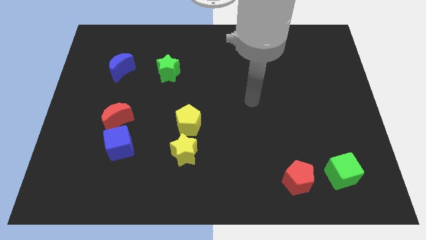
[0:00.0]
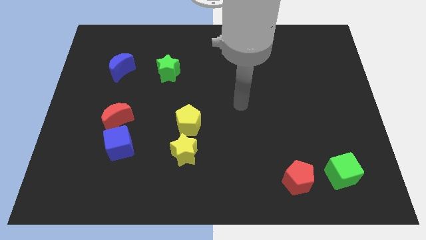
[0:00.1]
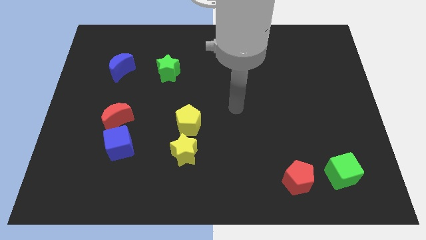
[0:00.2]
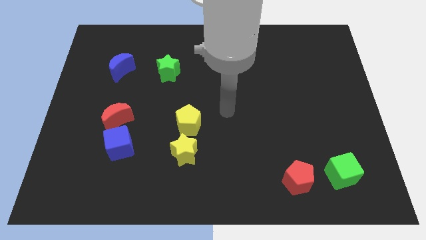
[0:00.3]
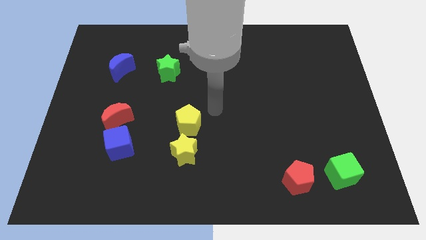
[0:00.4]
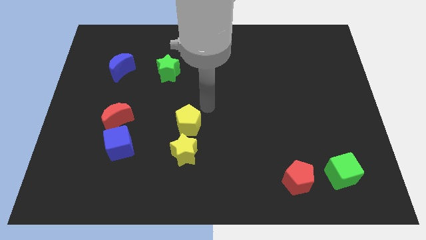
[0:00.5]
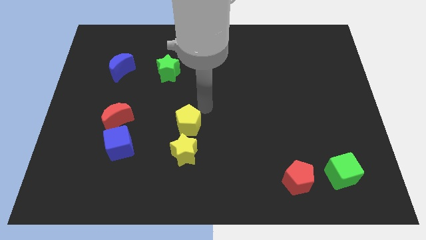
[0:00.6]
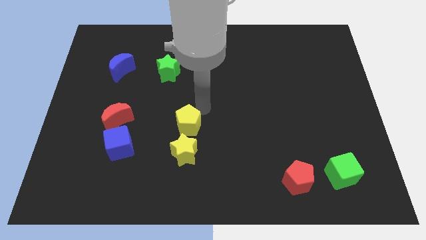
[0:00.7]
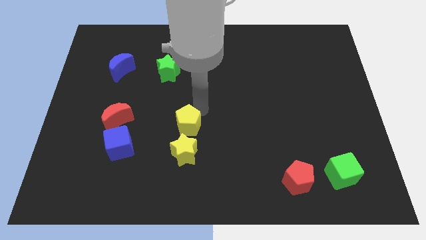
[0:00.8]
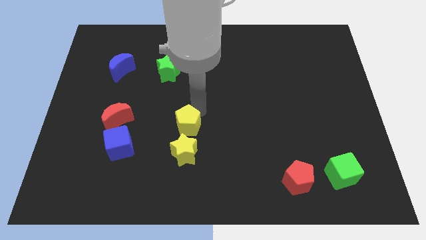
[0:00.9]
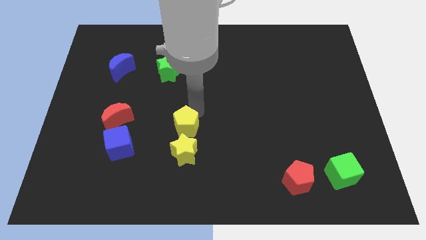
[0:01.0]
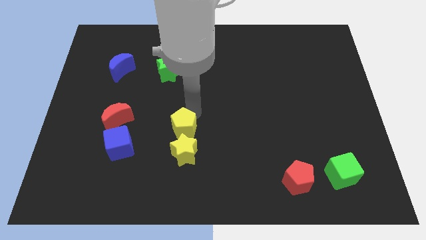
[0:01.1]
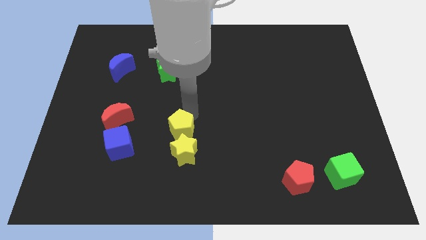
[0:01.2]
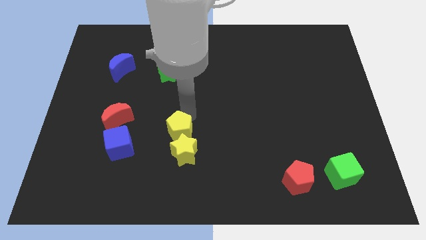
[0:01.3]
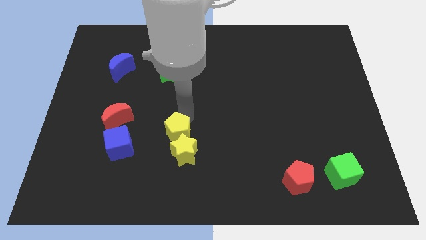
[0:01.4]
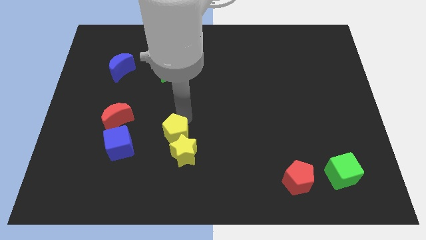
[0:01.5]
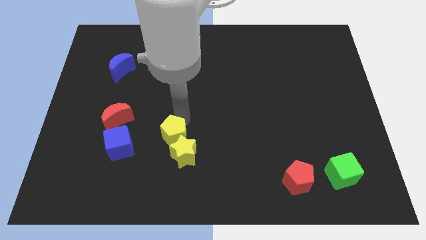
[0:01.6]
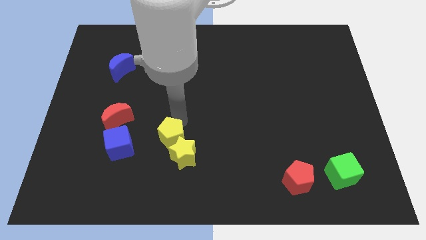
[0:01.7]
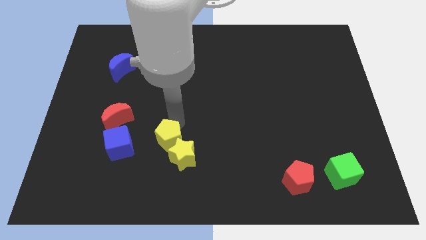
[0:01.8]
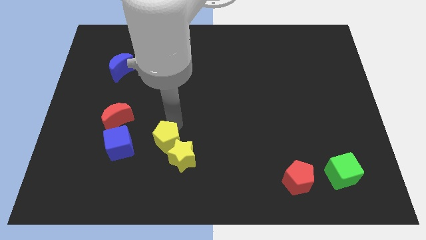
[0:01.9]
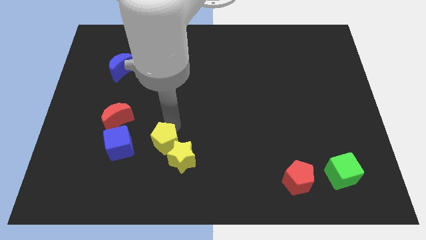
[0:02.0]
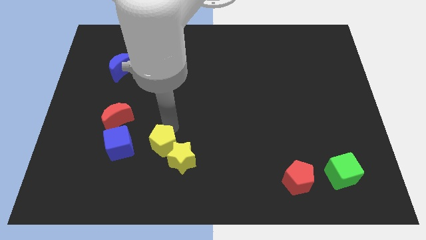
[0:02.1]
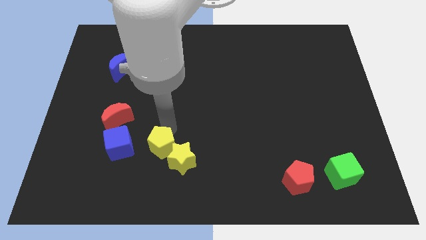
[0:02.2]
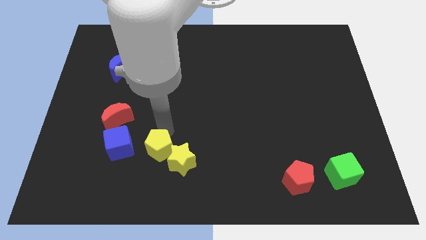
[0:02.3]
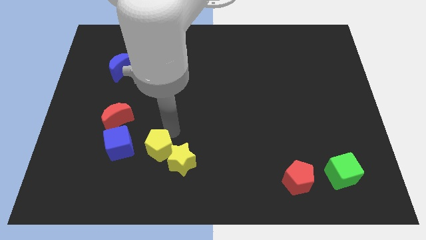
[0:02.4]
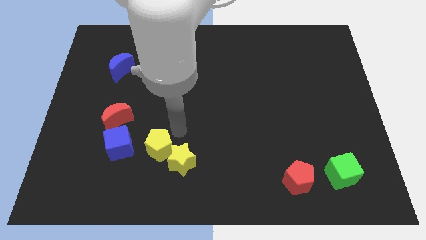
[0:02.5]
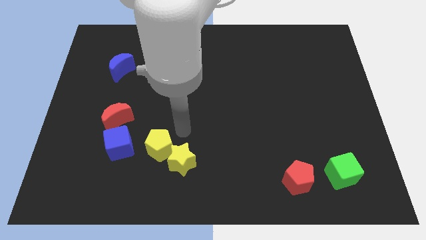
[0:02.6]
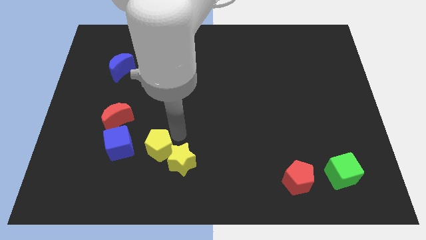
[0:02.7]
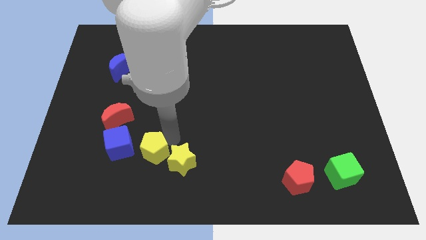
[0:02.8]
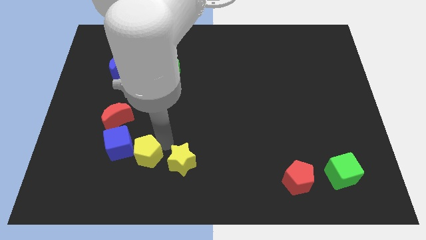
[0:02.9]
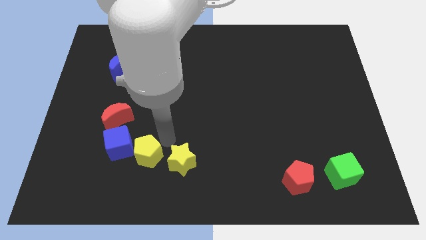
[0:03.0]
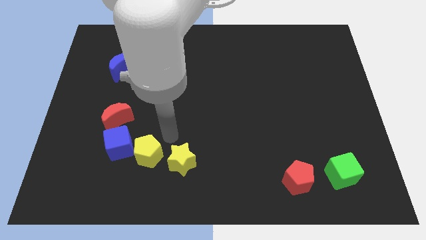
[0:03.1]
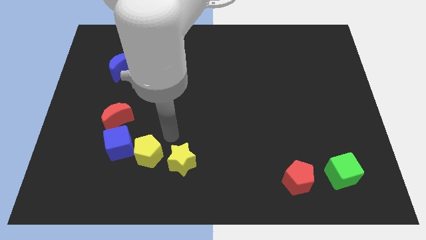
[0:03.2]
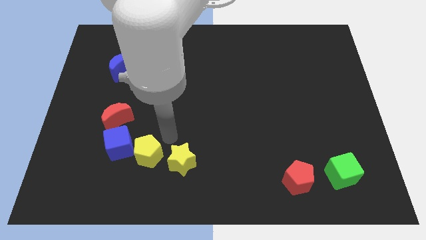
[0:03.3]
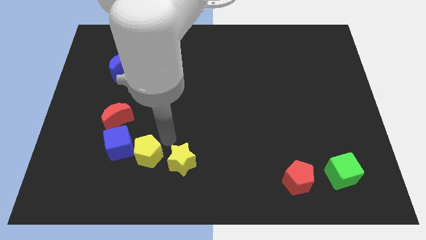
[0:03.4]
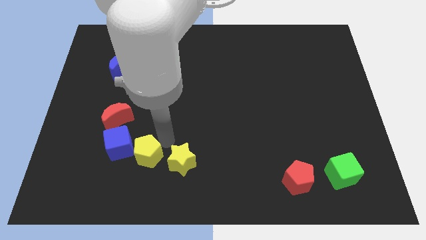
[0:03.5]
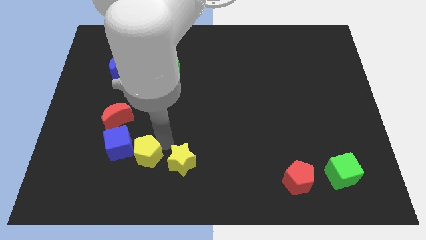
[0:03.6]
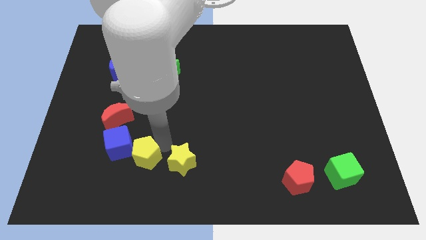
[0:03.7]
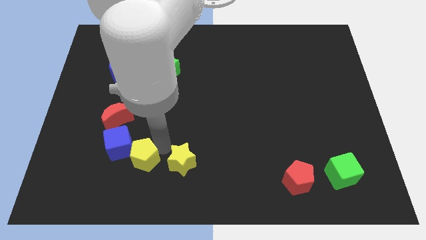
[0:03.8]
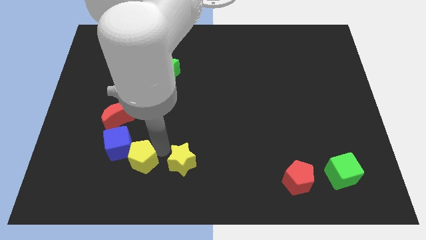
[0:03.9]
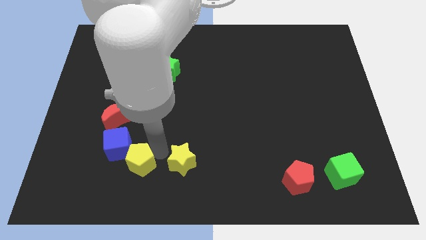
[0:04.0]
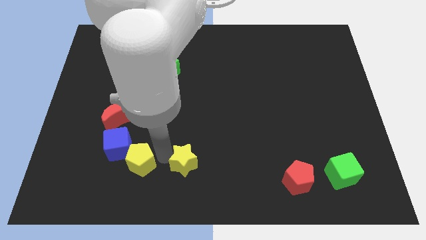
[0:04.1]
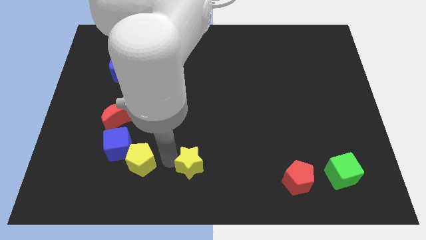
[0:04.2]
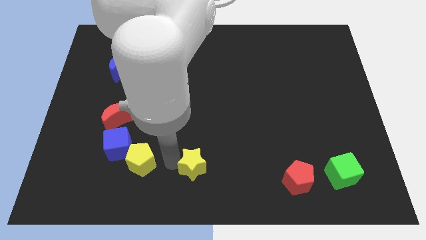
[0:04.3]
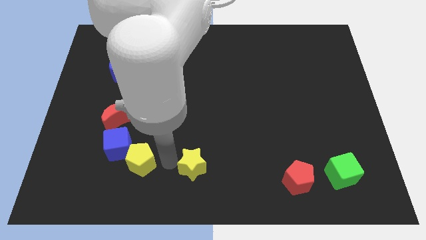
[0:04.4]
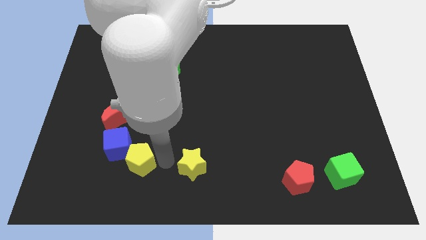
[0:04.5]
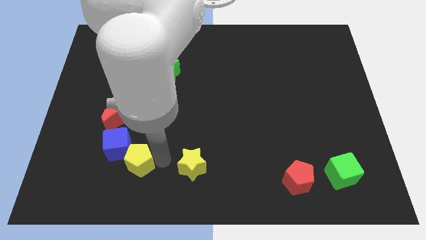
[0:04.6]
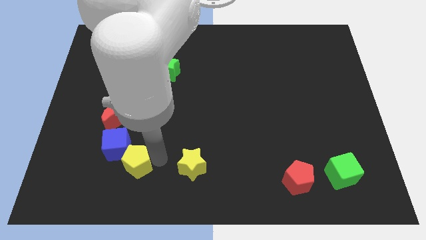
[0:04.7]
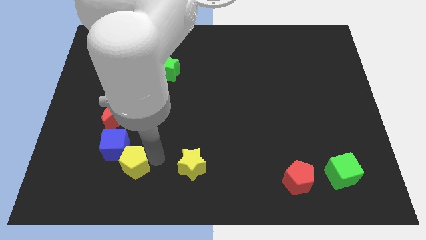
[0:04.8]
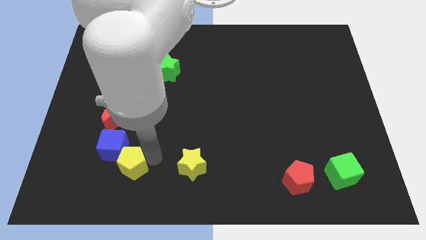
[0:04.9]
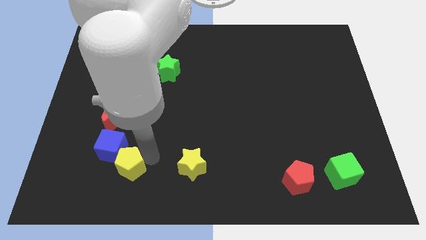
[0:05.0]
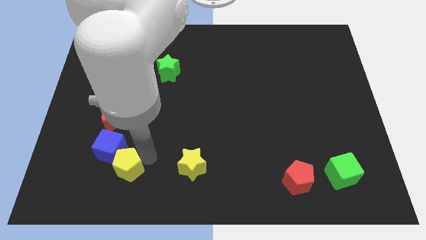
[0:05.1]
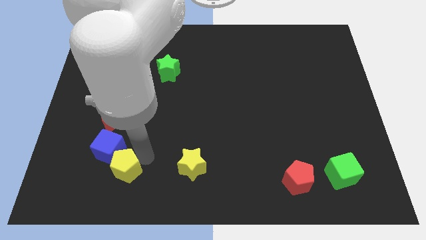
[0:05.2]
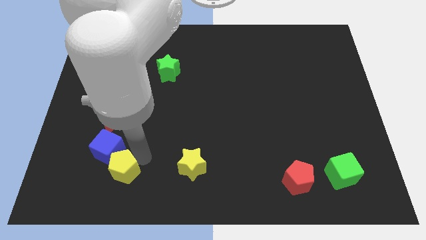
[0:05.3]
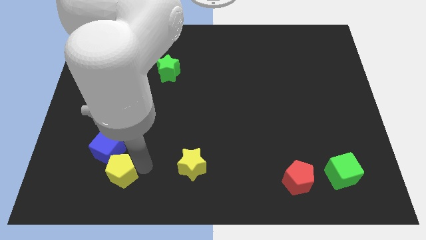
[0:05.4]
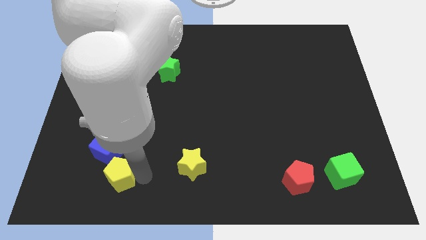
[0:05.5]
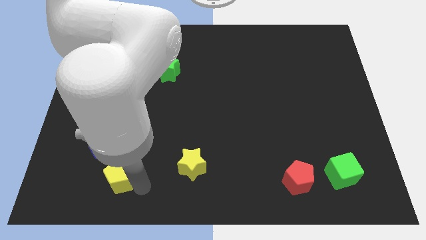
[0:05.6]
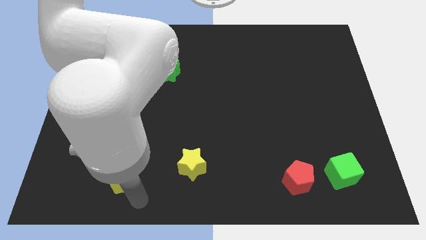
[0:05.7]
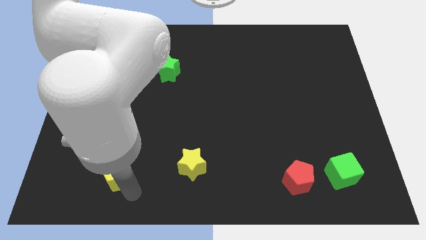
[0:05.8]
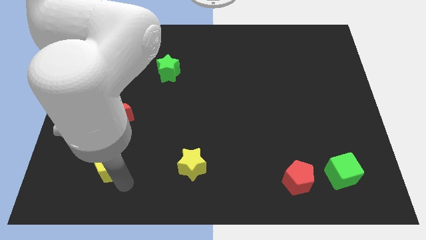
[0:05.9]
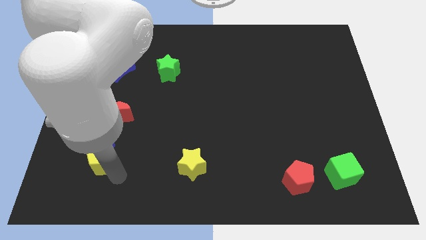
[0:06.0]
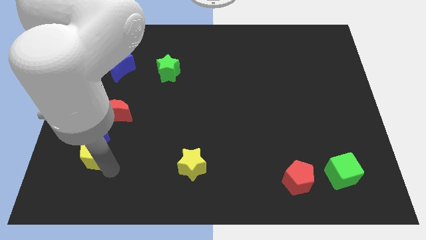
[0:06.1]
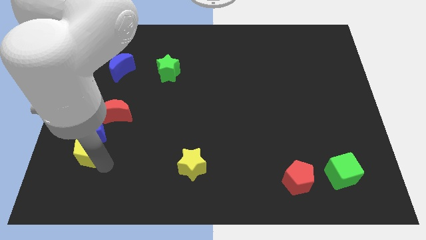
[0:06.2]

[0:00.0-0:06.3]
push the yellow pentagon diagonally down and to the left of the red moon
